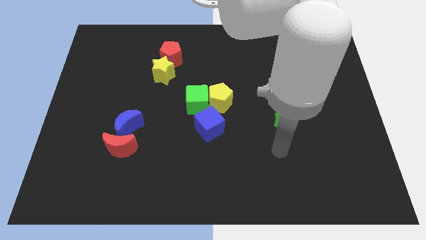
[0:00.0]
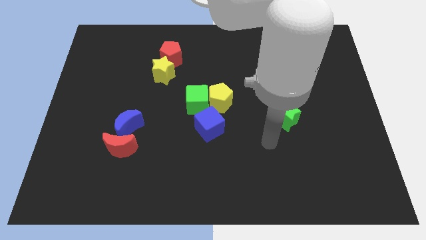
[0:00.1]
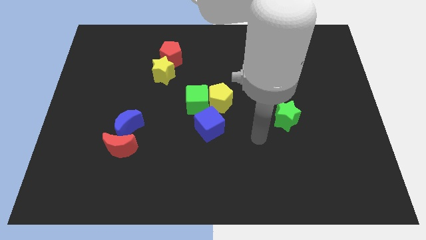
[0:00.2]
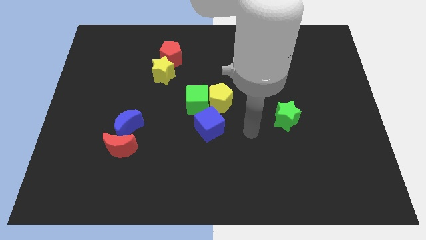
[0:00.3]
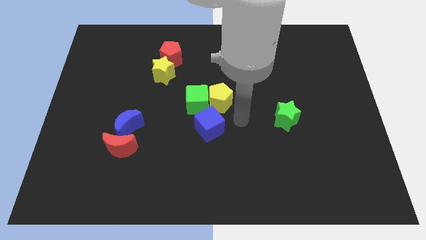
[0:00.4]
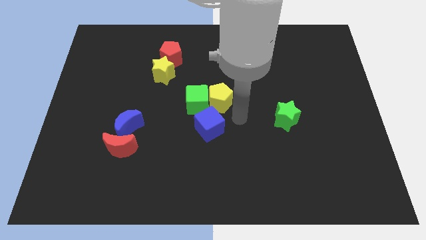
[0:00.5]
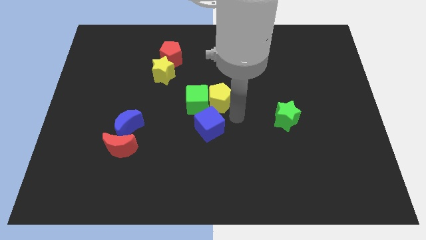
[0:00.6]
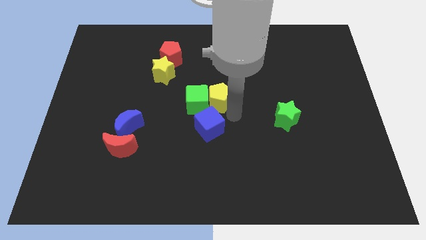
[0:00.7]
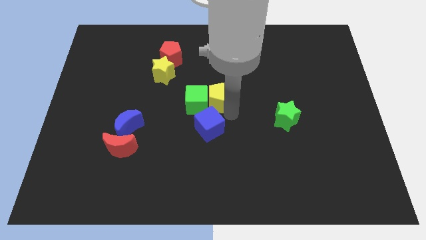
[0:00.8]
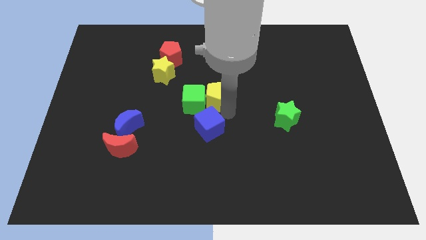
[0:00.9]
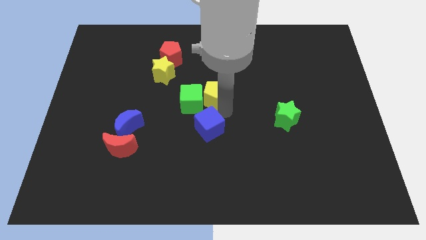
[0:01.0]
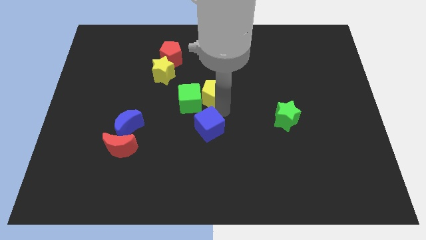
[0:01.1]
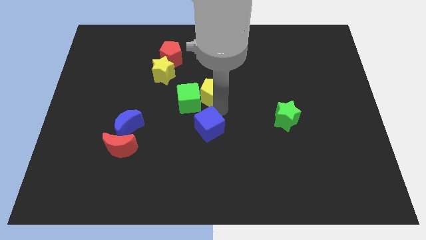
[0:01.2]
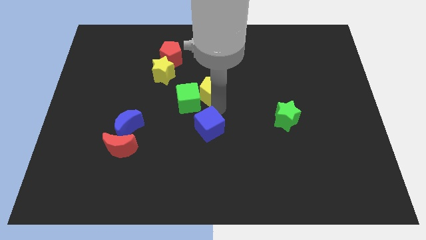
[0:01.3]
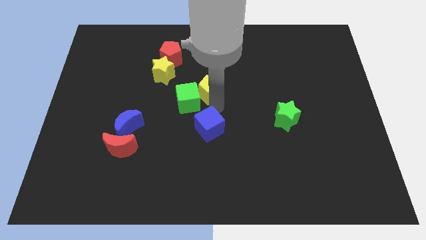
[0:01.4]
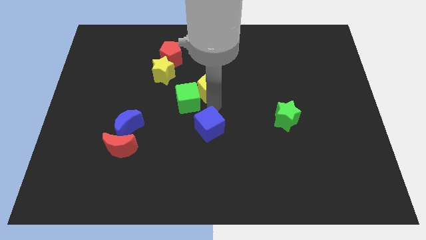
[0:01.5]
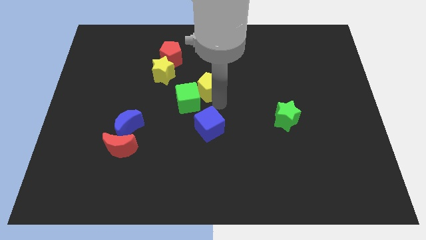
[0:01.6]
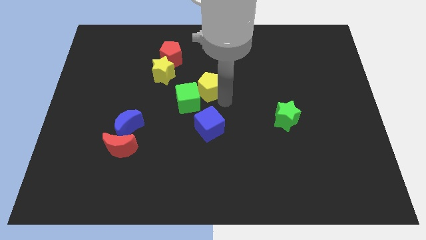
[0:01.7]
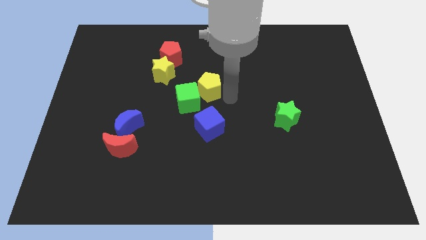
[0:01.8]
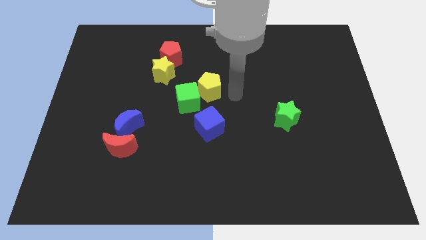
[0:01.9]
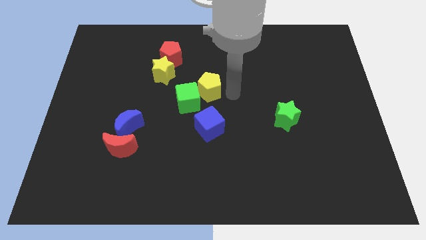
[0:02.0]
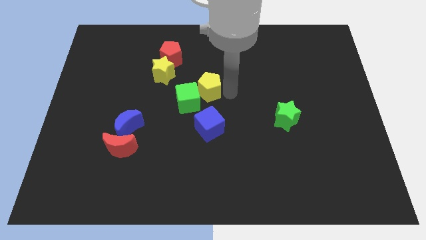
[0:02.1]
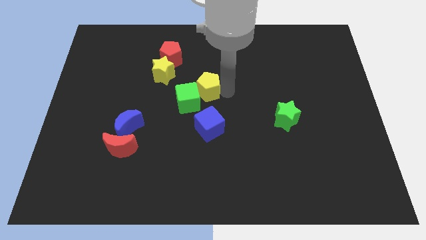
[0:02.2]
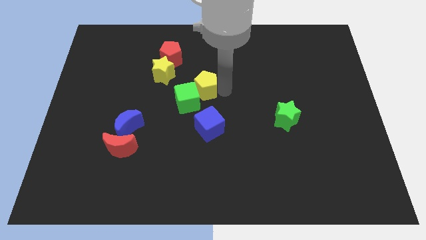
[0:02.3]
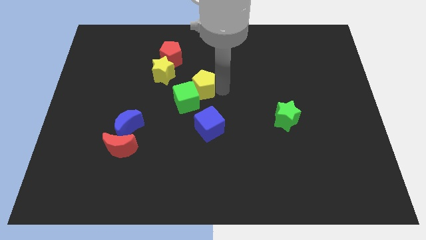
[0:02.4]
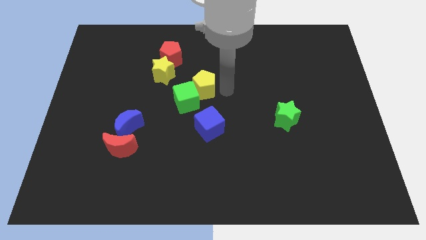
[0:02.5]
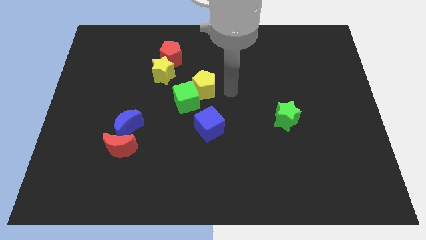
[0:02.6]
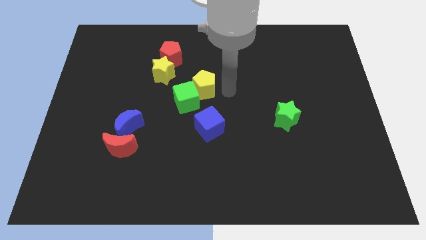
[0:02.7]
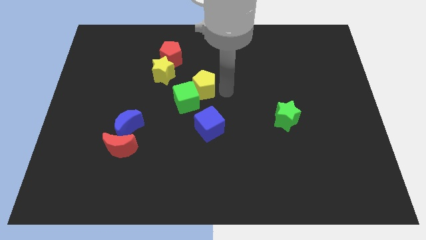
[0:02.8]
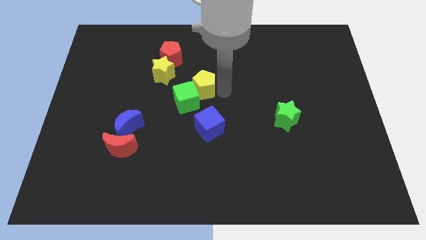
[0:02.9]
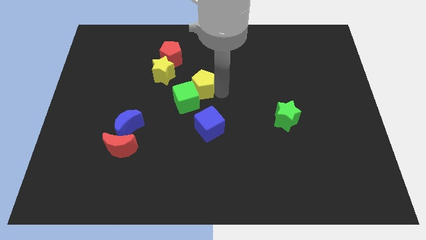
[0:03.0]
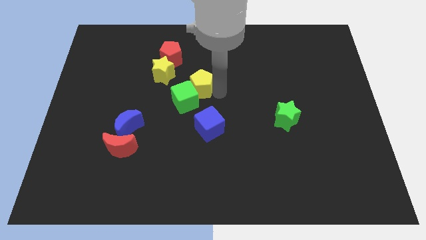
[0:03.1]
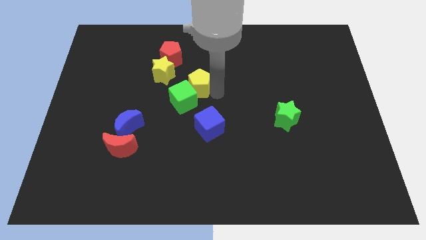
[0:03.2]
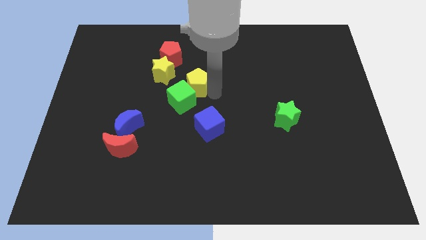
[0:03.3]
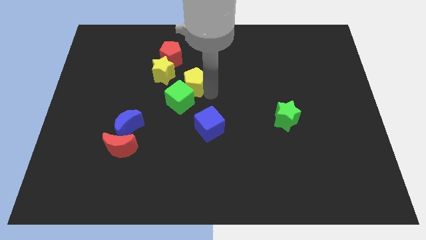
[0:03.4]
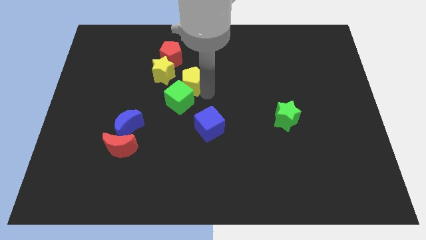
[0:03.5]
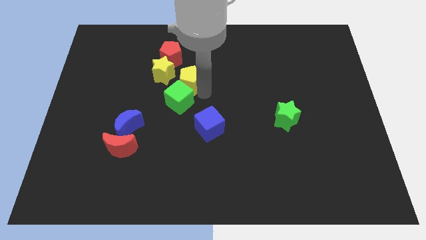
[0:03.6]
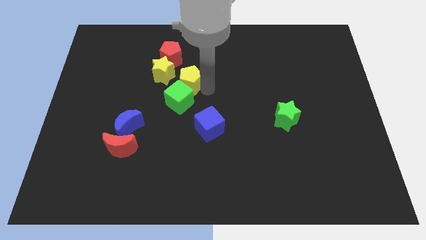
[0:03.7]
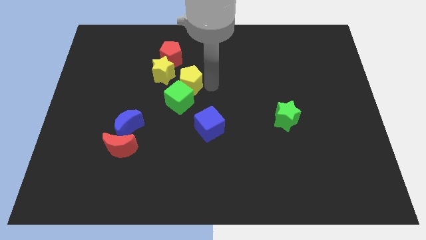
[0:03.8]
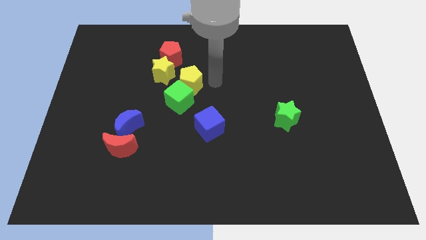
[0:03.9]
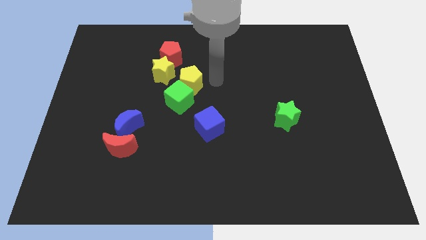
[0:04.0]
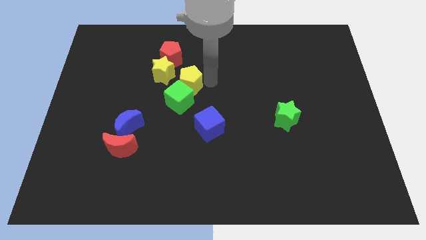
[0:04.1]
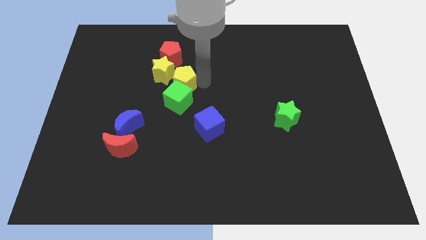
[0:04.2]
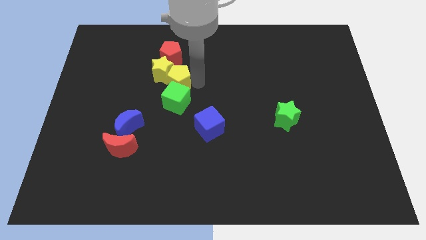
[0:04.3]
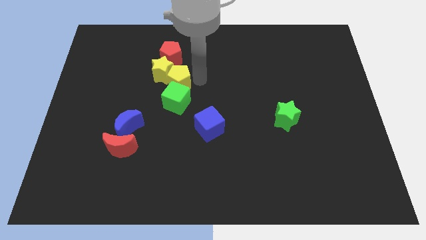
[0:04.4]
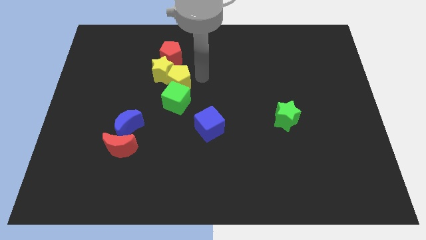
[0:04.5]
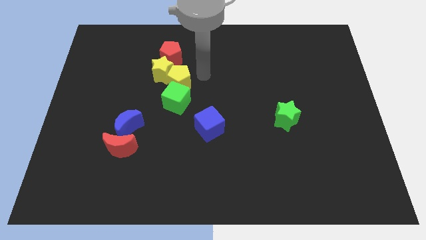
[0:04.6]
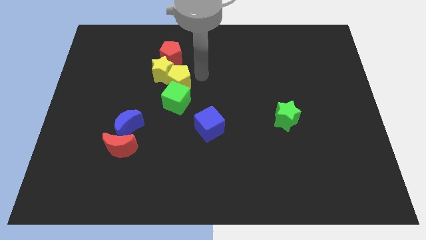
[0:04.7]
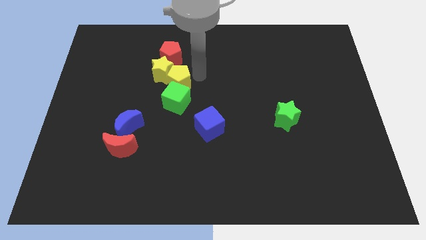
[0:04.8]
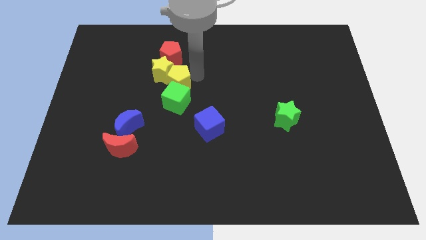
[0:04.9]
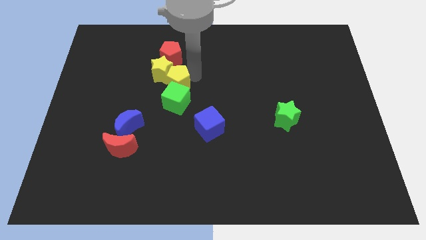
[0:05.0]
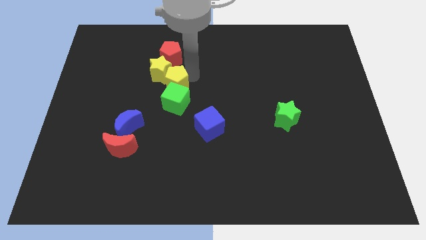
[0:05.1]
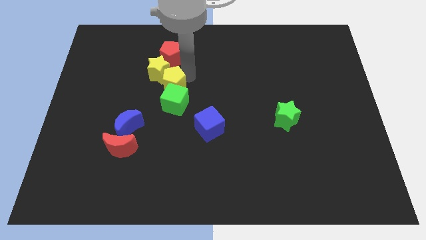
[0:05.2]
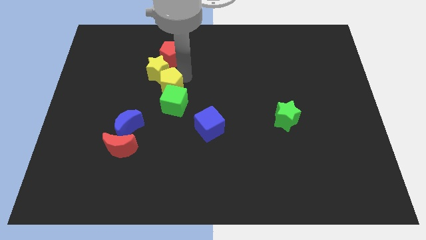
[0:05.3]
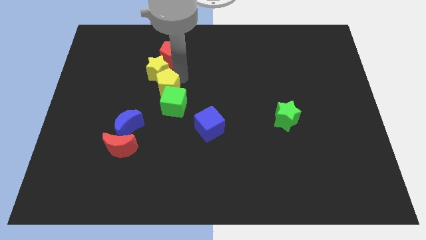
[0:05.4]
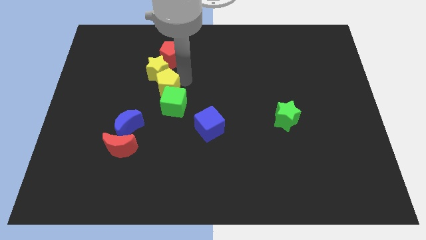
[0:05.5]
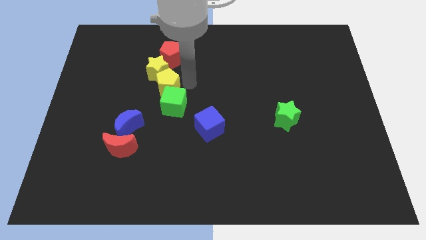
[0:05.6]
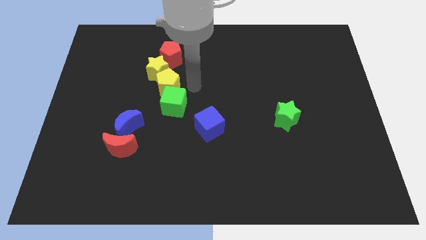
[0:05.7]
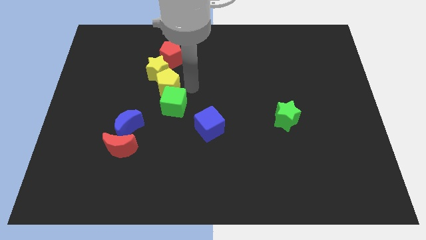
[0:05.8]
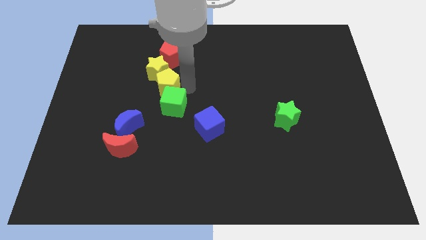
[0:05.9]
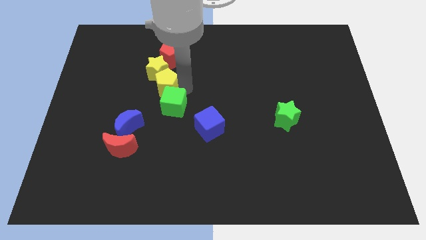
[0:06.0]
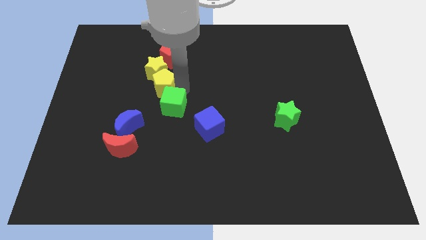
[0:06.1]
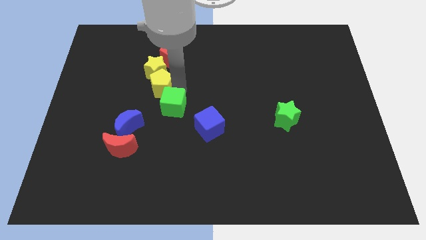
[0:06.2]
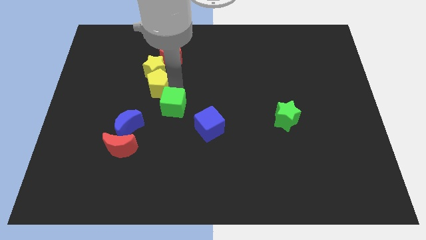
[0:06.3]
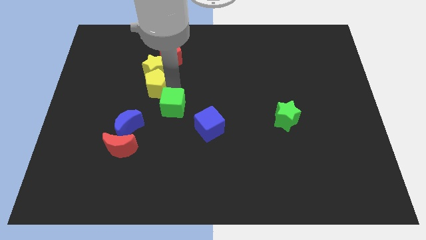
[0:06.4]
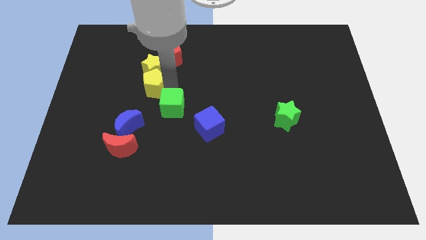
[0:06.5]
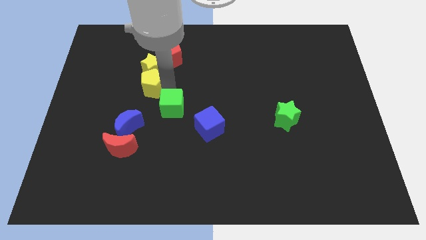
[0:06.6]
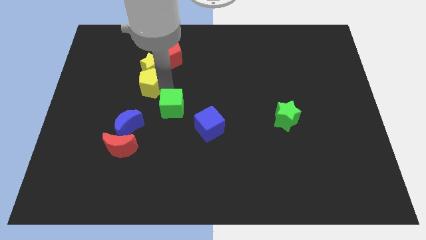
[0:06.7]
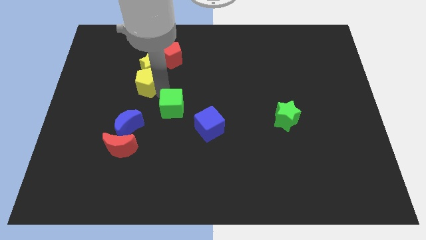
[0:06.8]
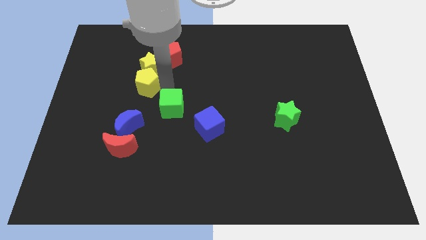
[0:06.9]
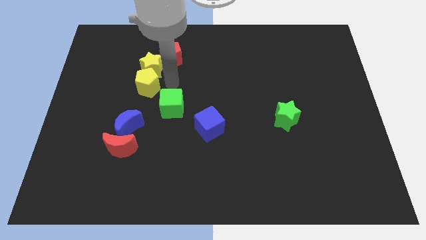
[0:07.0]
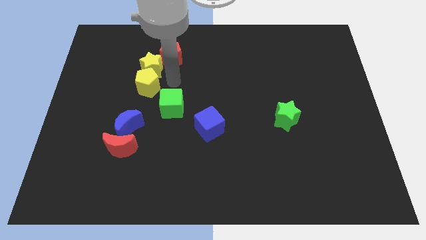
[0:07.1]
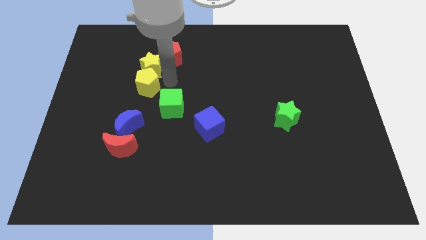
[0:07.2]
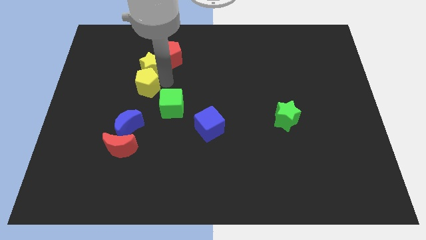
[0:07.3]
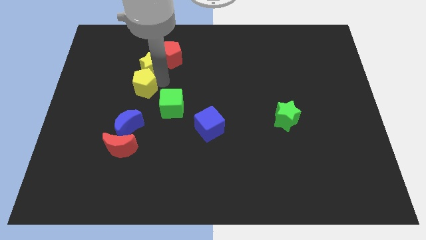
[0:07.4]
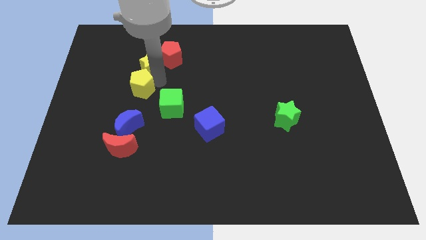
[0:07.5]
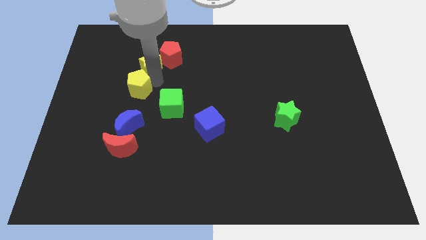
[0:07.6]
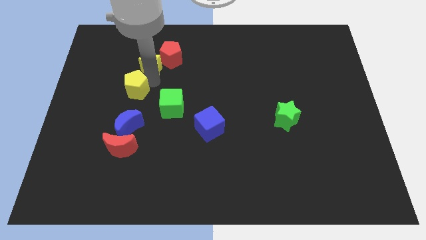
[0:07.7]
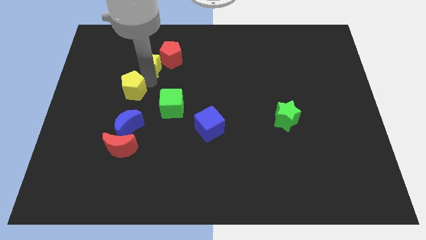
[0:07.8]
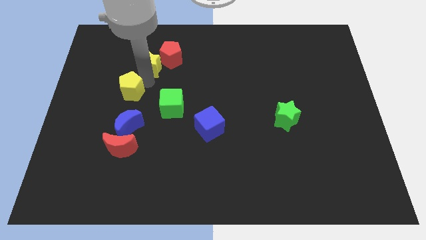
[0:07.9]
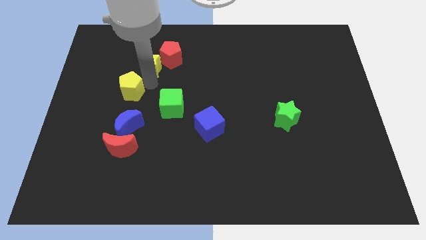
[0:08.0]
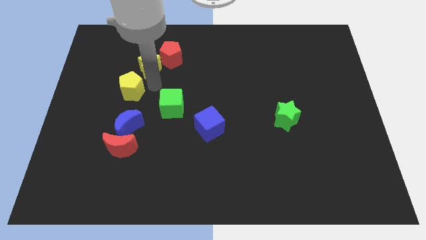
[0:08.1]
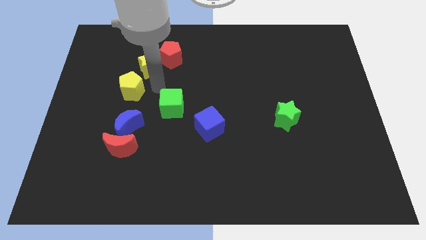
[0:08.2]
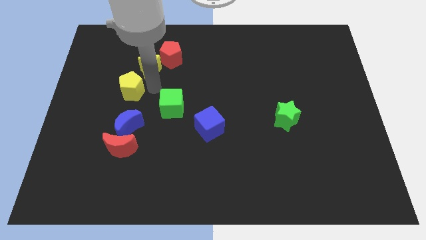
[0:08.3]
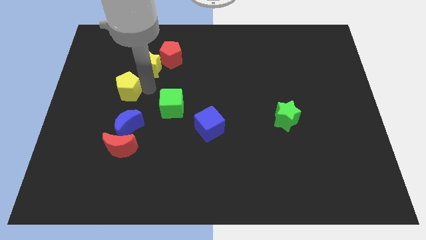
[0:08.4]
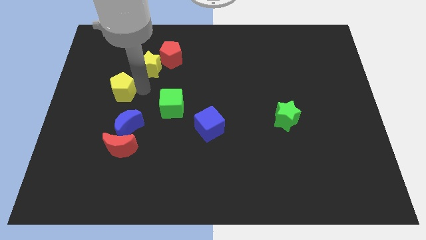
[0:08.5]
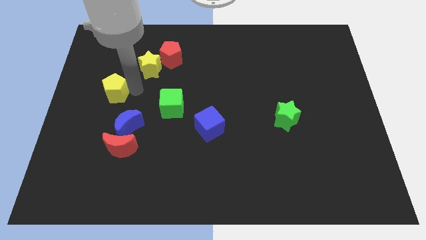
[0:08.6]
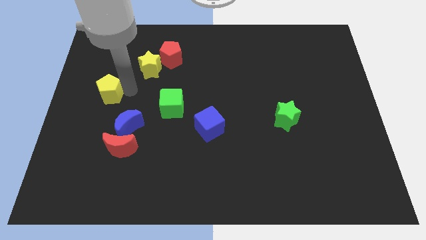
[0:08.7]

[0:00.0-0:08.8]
push the yellow pentagon to the center left
